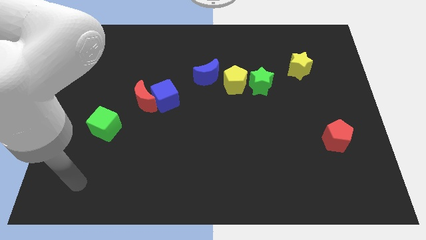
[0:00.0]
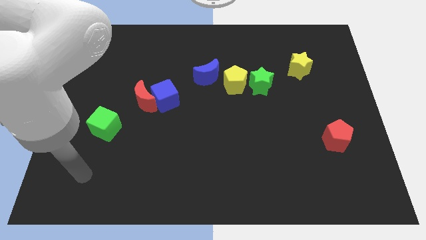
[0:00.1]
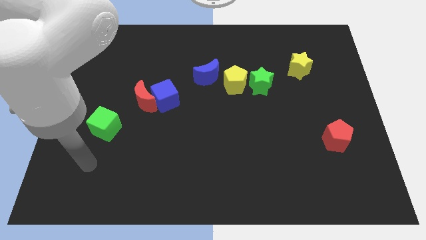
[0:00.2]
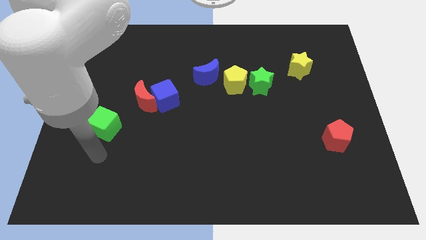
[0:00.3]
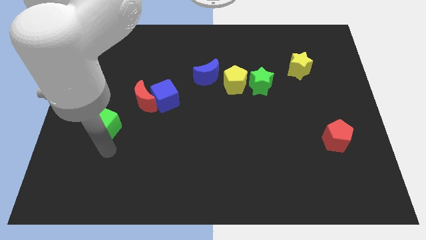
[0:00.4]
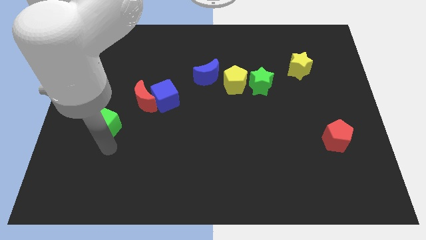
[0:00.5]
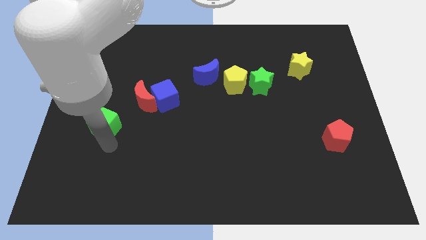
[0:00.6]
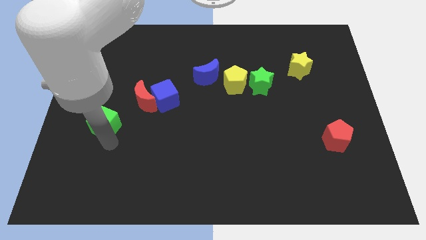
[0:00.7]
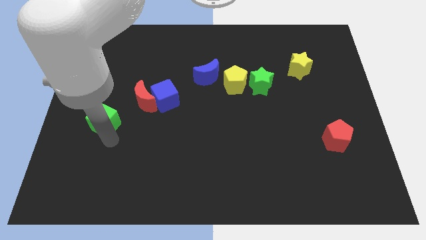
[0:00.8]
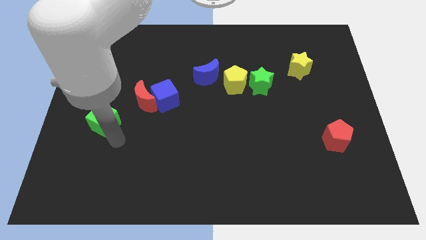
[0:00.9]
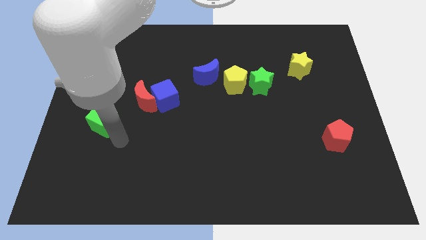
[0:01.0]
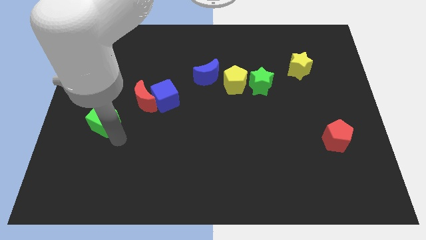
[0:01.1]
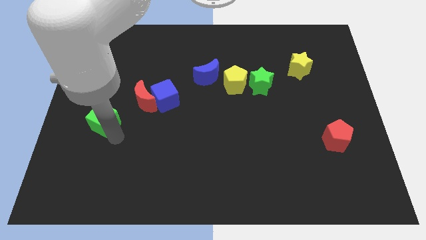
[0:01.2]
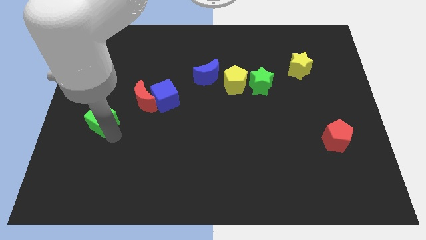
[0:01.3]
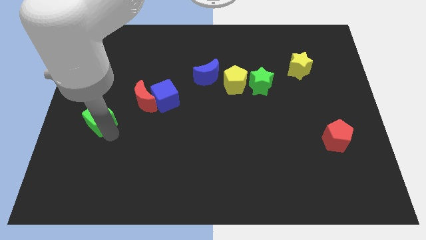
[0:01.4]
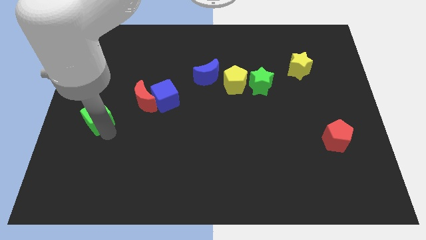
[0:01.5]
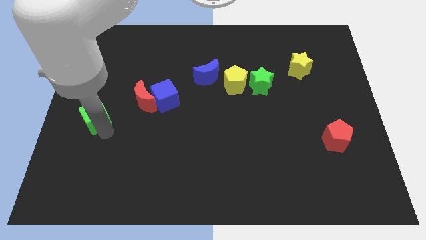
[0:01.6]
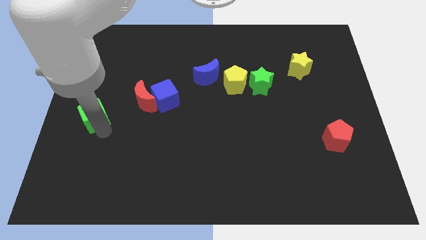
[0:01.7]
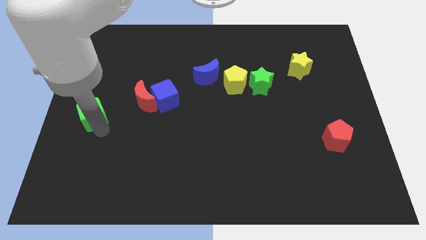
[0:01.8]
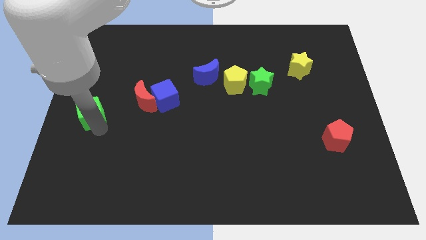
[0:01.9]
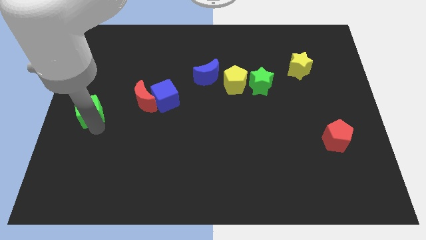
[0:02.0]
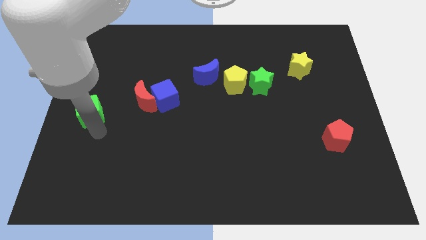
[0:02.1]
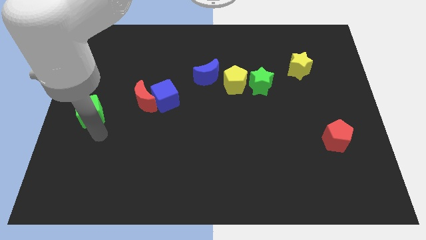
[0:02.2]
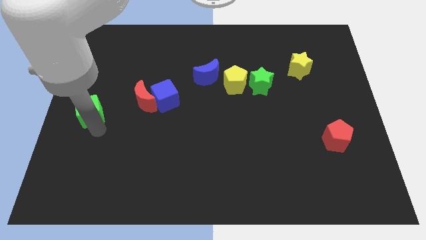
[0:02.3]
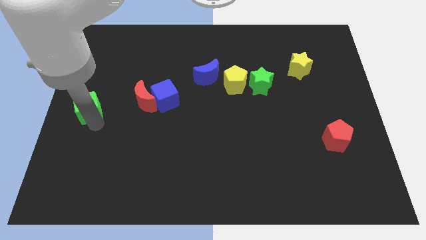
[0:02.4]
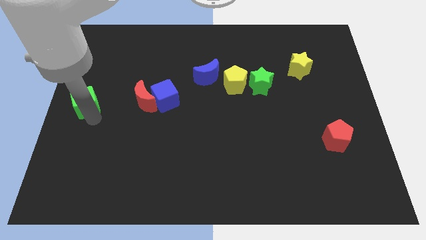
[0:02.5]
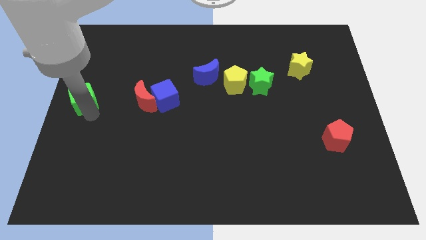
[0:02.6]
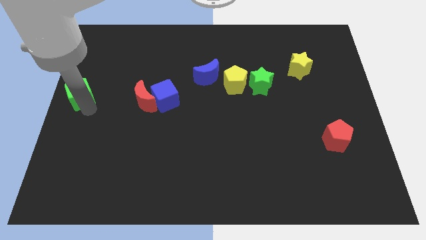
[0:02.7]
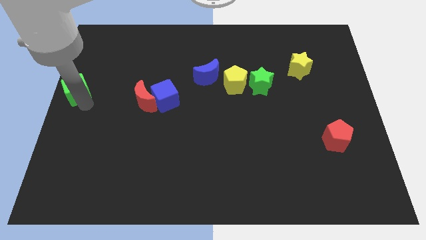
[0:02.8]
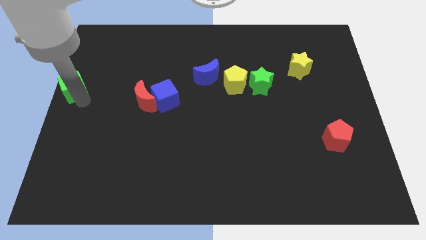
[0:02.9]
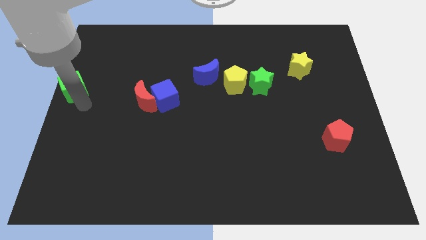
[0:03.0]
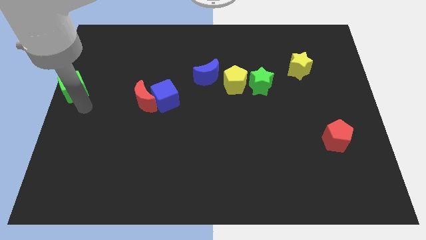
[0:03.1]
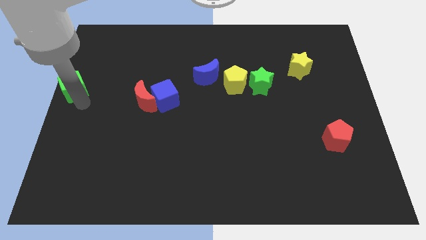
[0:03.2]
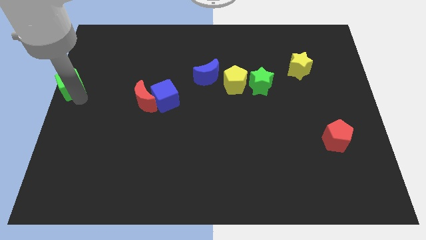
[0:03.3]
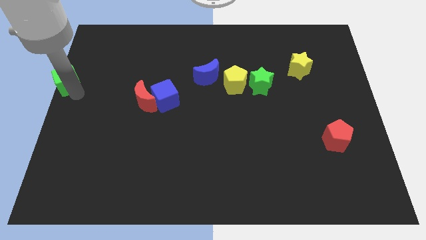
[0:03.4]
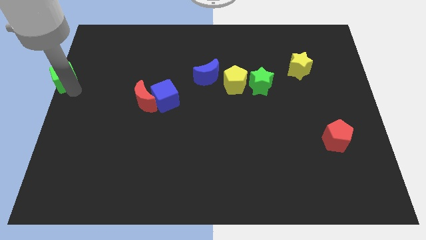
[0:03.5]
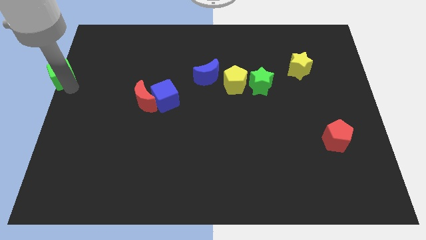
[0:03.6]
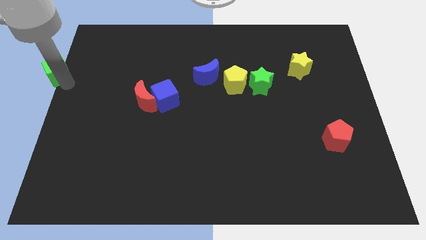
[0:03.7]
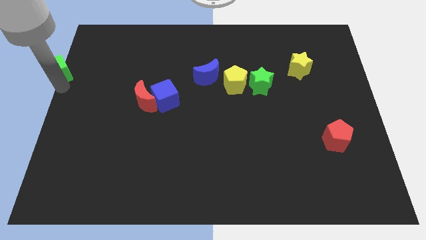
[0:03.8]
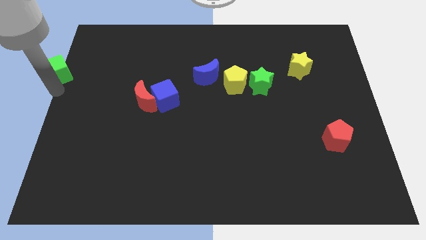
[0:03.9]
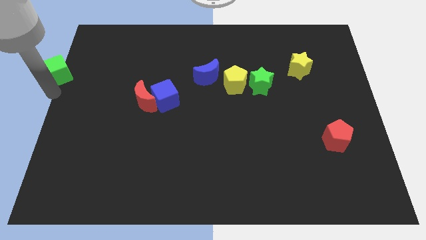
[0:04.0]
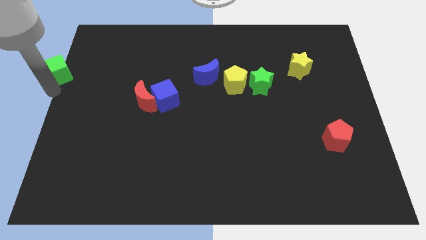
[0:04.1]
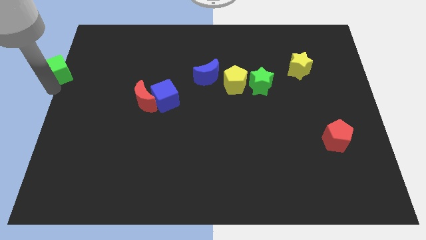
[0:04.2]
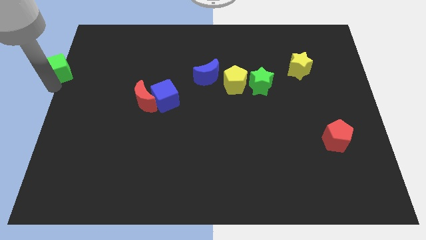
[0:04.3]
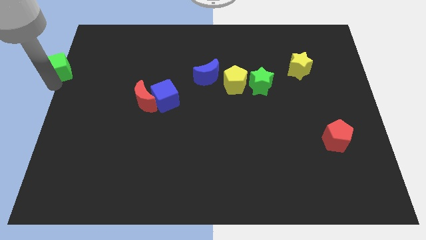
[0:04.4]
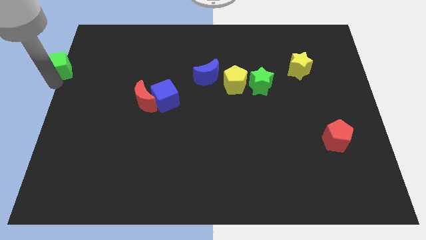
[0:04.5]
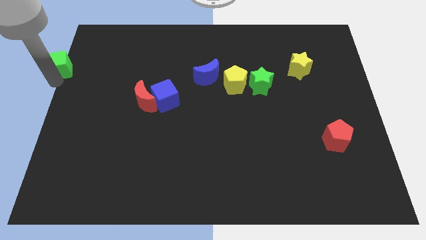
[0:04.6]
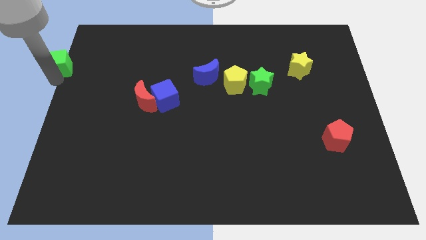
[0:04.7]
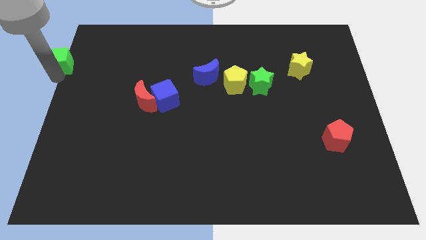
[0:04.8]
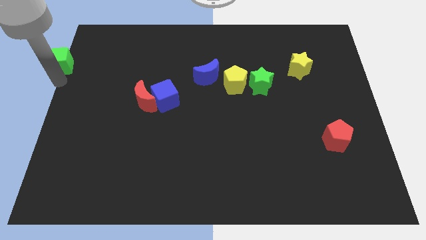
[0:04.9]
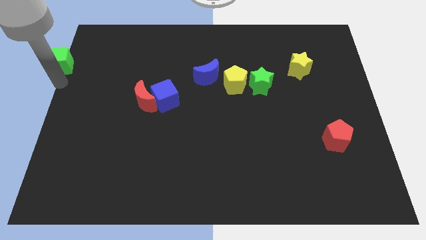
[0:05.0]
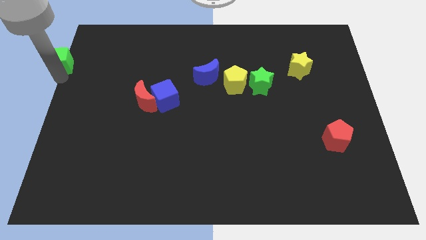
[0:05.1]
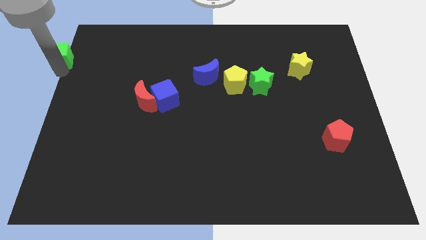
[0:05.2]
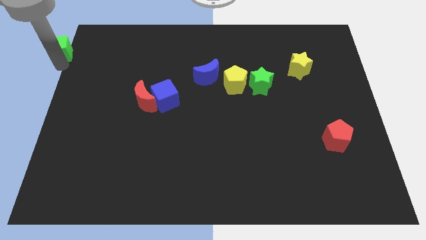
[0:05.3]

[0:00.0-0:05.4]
put the green cube to the top left
